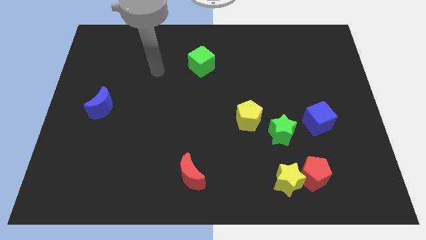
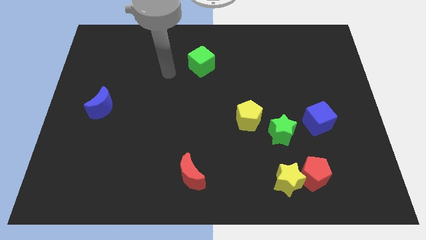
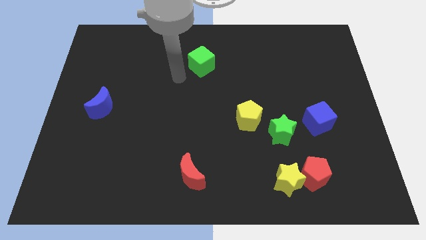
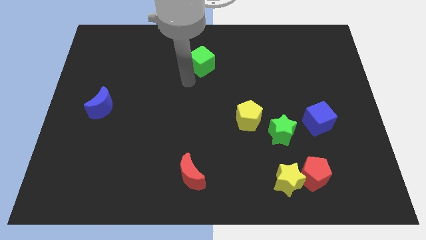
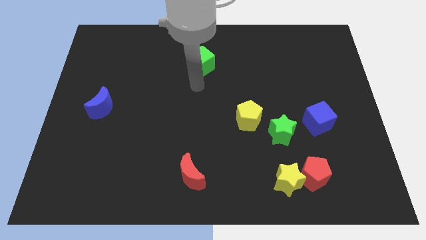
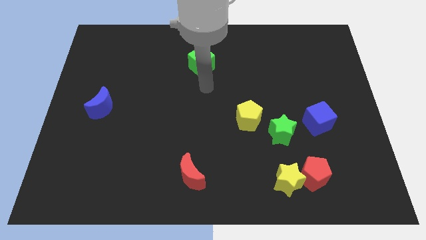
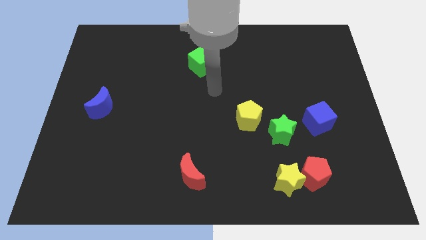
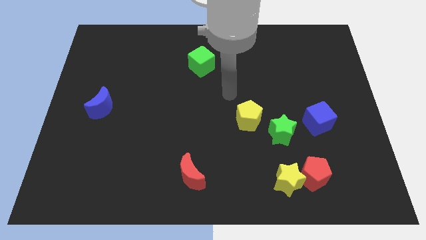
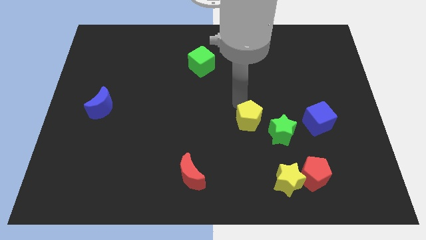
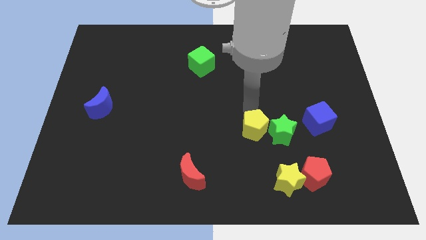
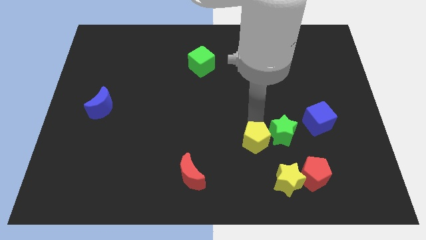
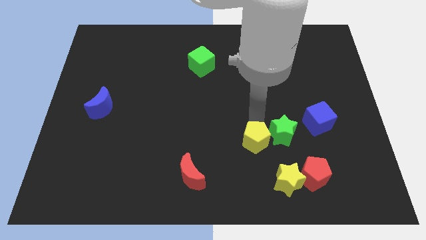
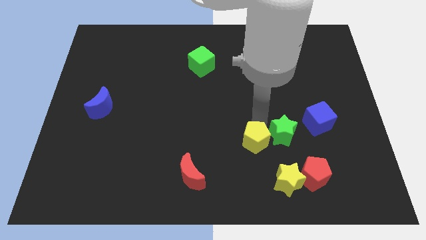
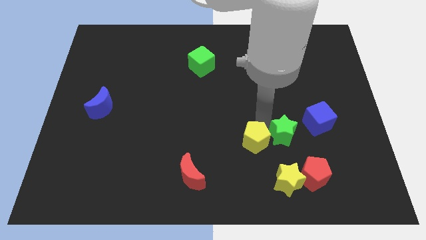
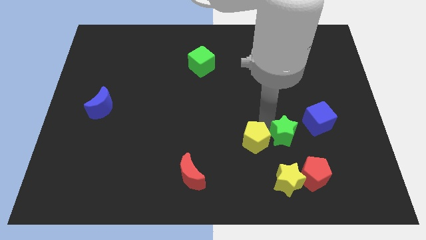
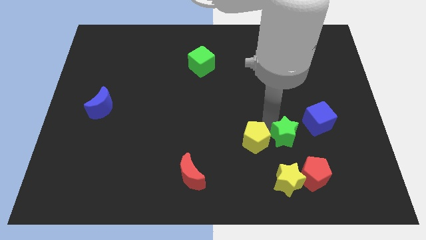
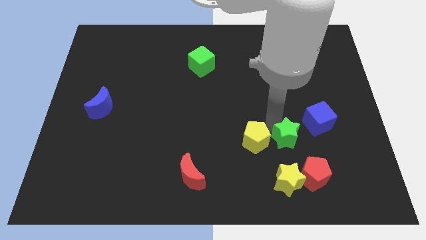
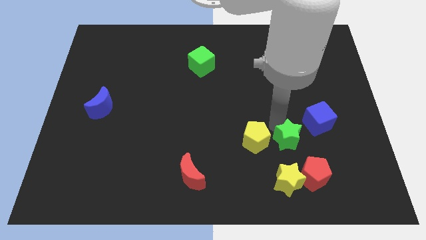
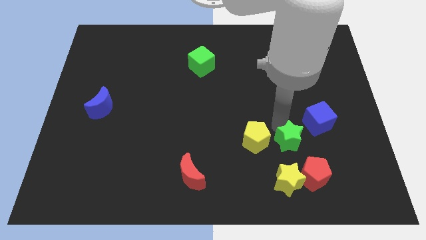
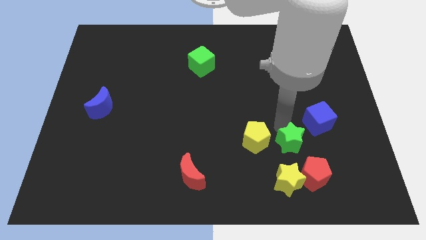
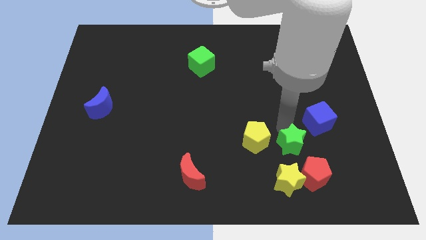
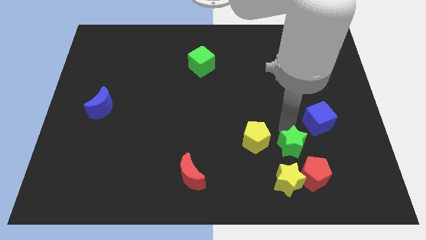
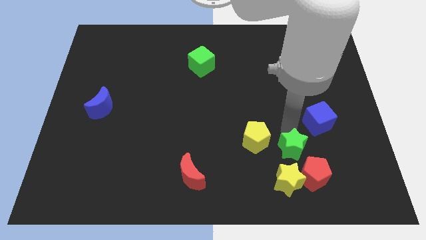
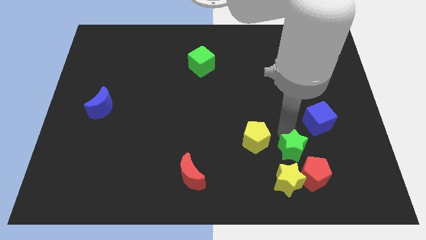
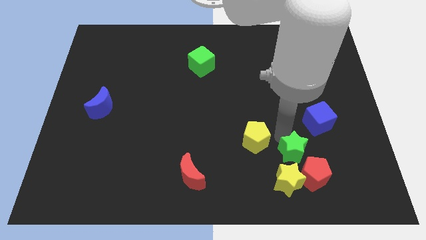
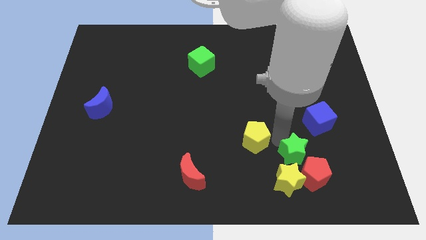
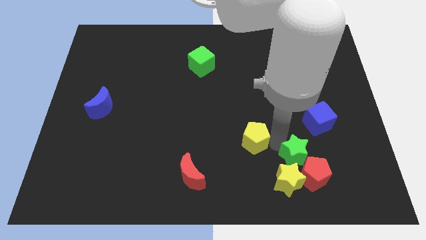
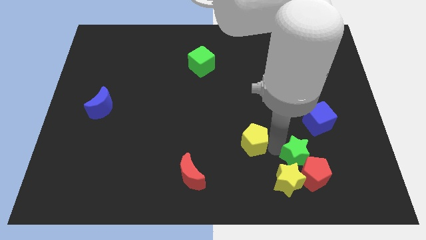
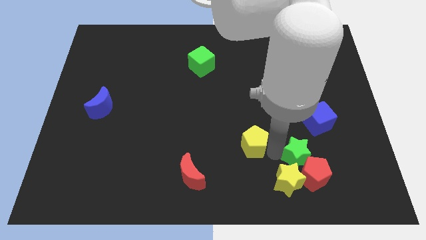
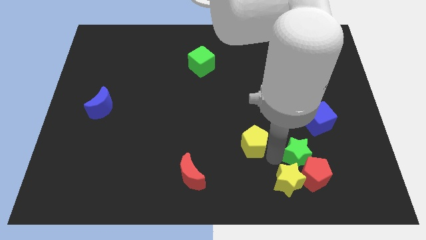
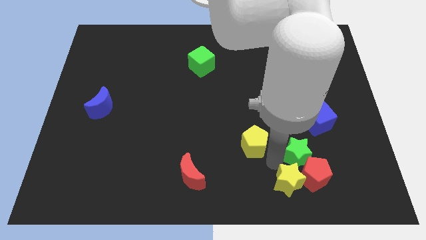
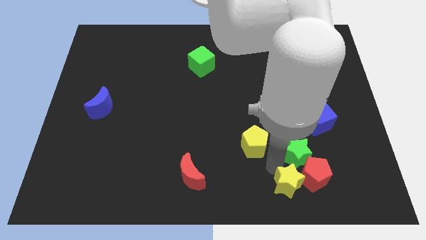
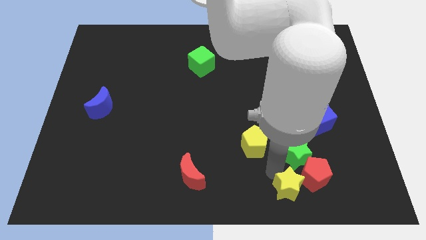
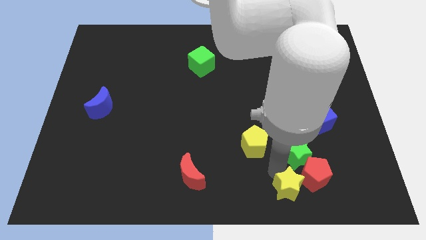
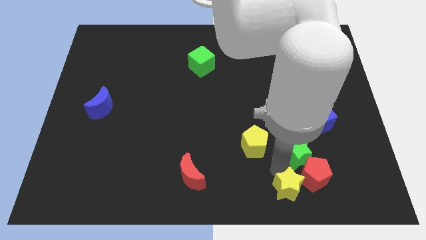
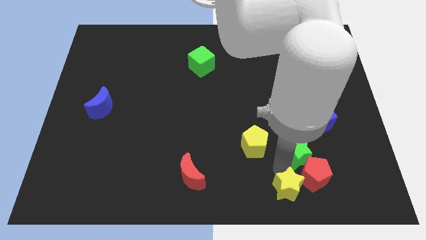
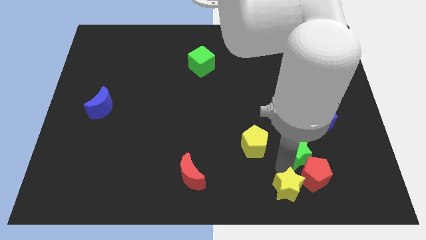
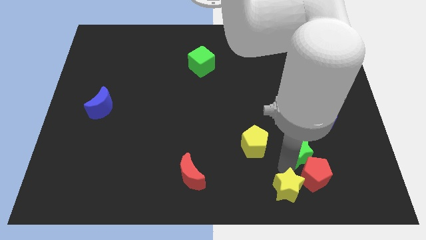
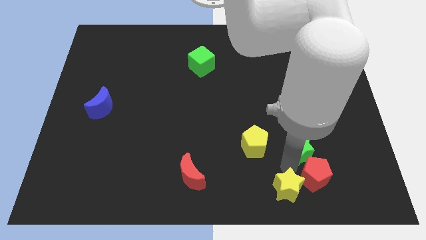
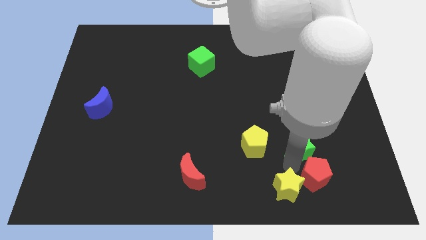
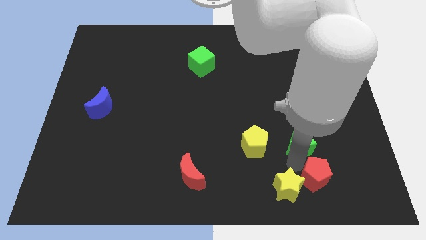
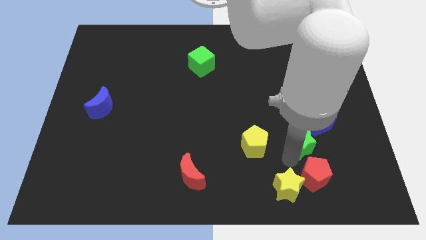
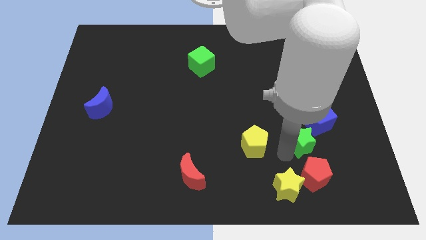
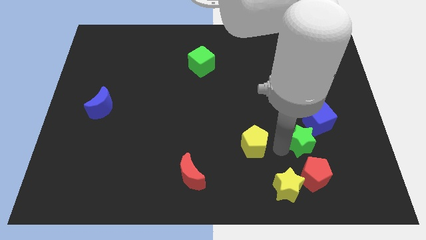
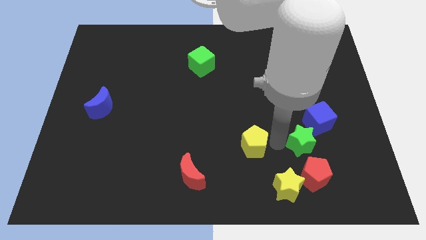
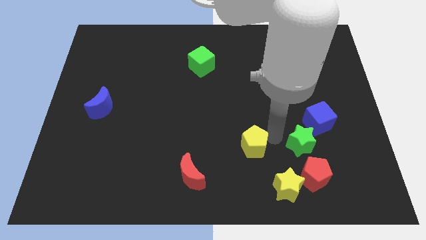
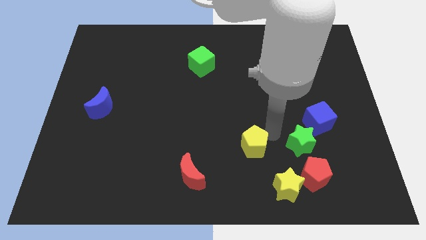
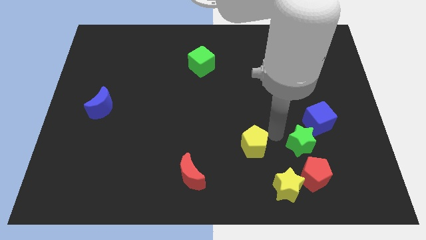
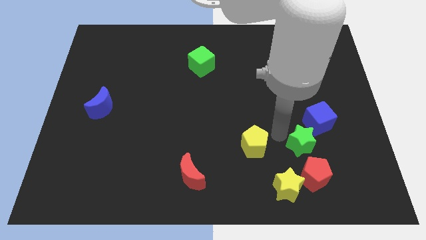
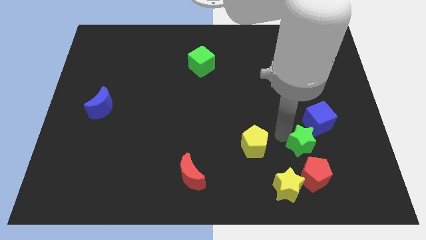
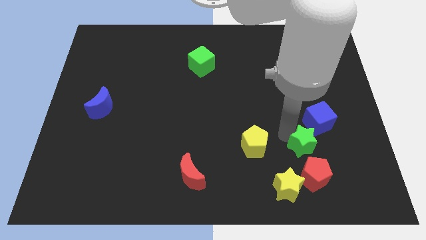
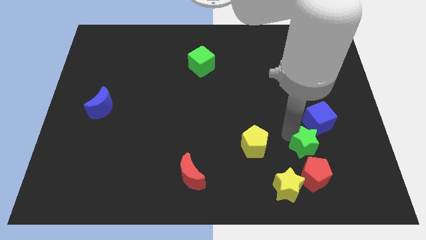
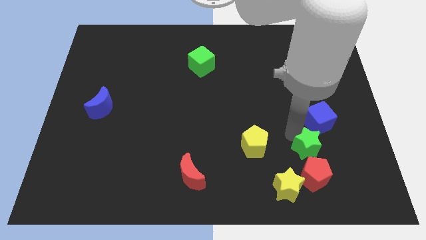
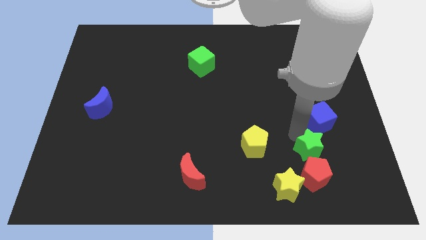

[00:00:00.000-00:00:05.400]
put the green star to the top right of the red pentagon

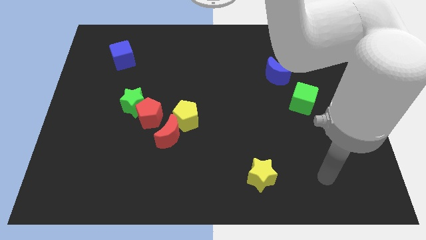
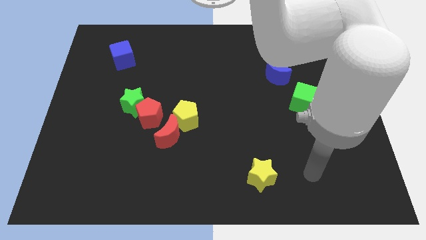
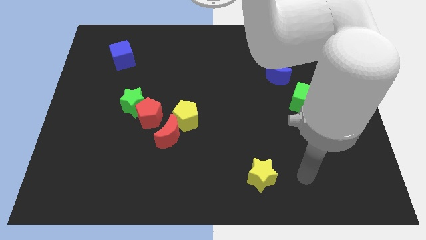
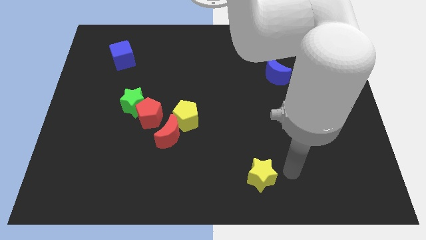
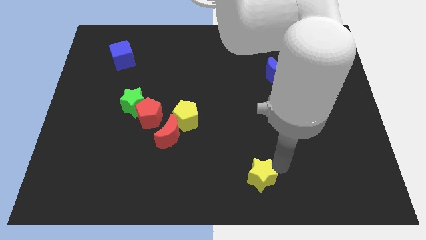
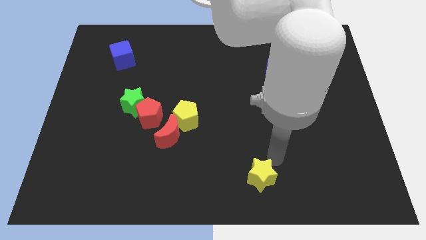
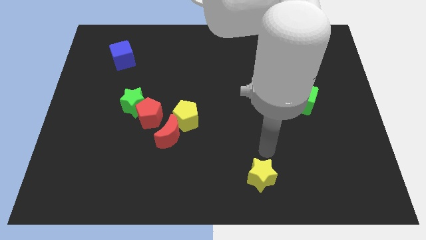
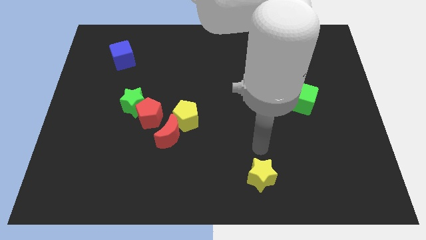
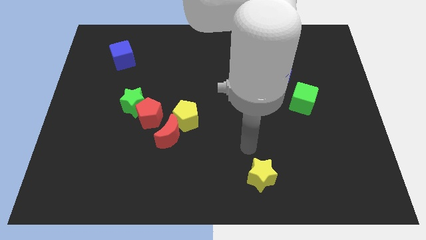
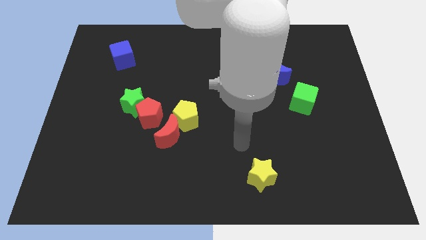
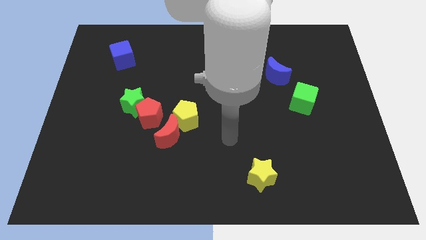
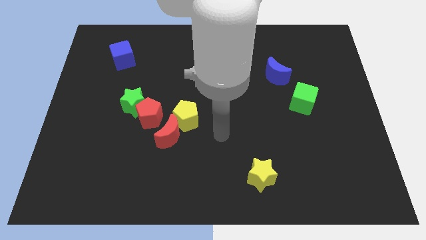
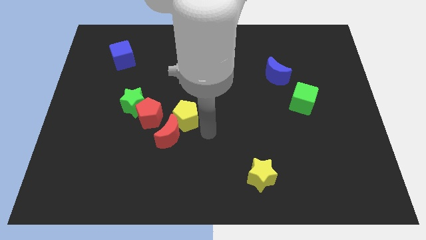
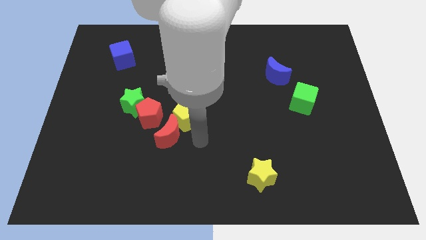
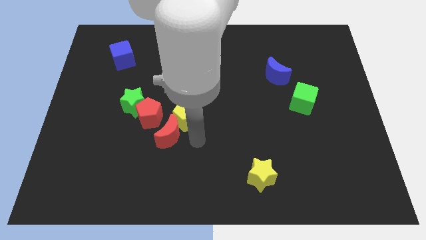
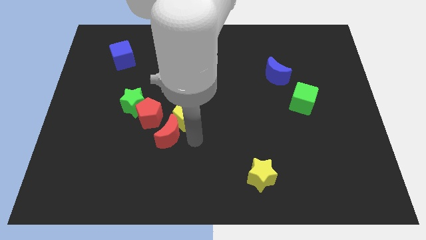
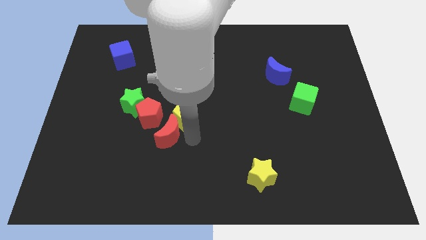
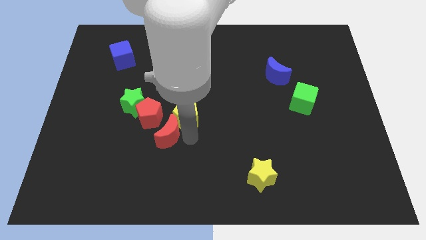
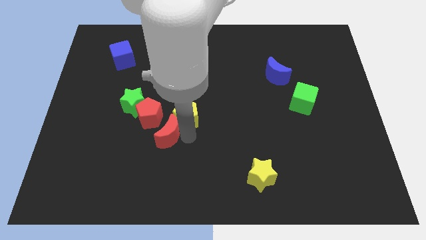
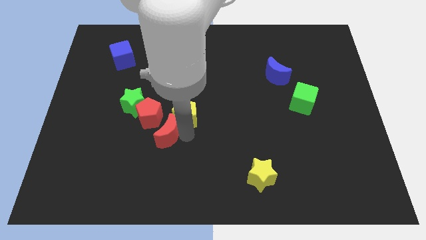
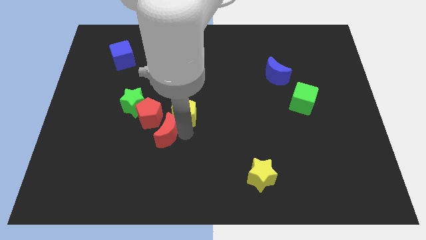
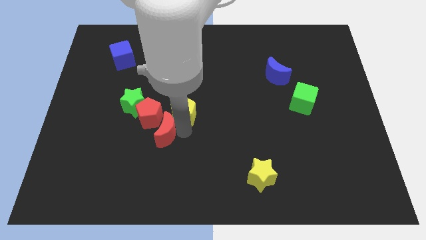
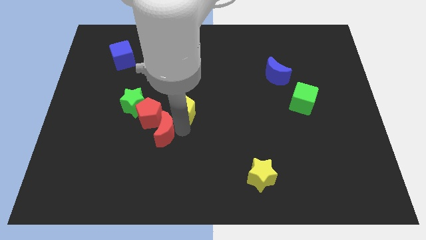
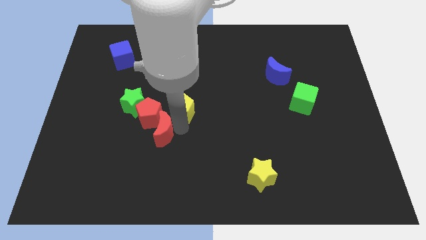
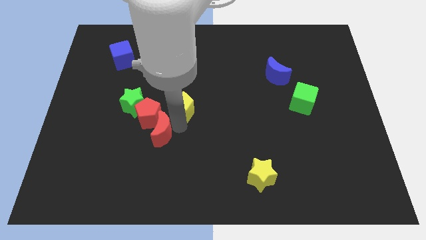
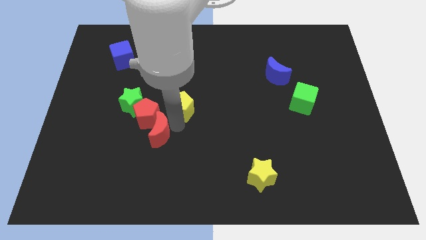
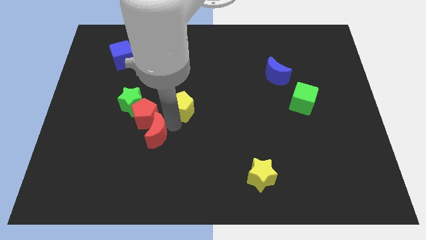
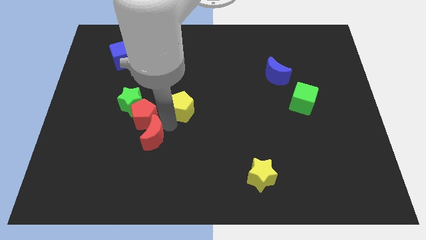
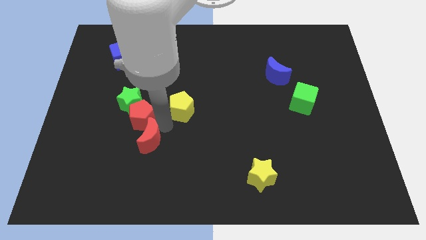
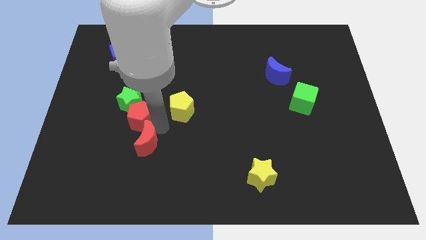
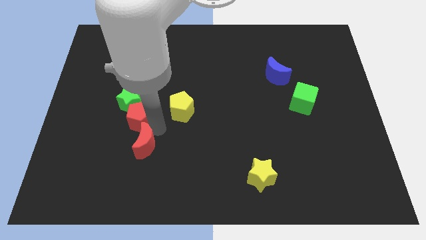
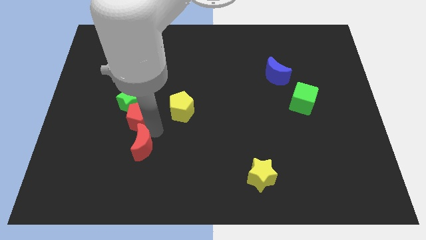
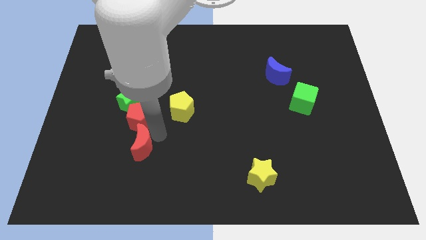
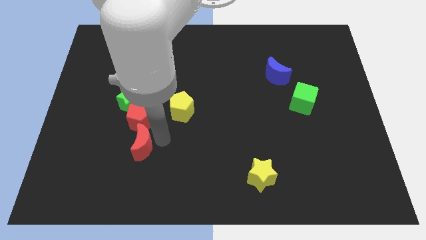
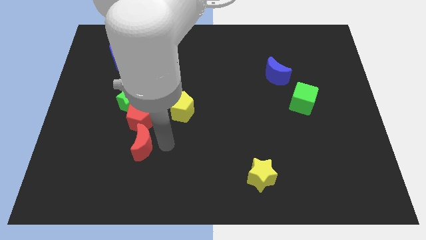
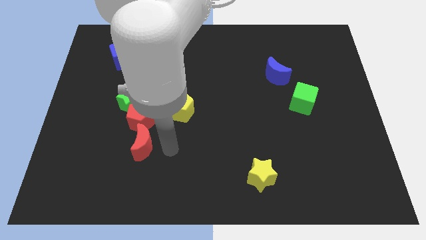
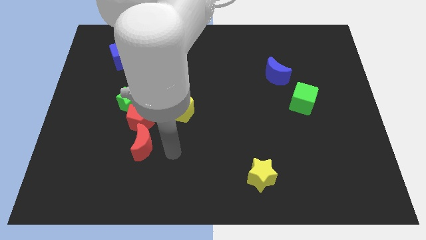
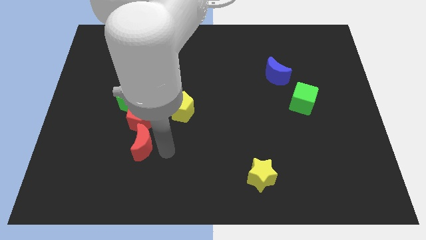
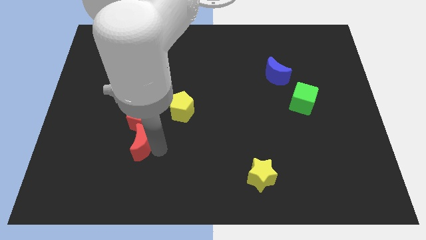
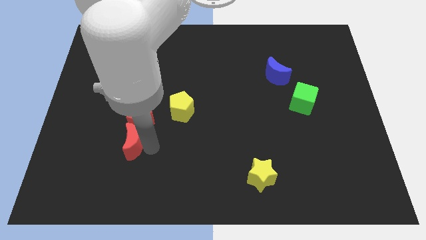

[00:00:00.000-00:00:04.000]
slide the red moon to the bottom left of the red pentagon
